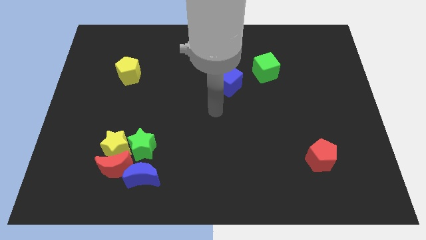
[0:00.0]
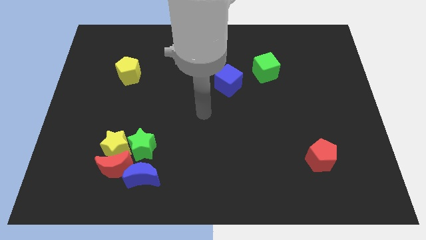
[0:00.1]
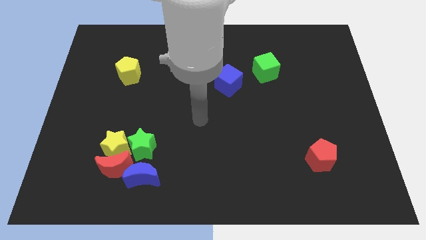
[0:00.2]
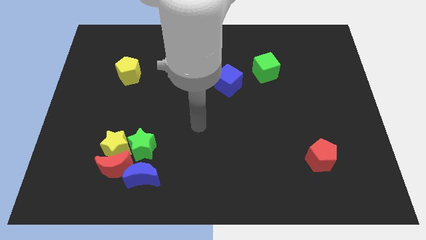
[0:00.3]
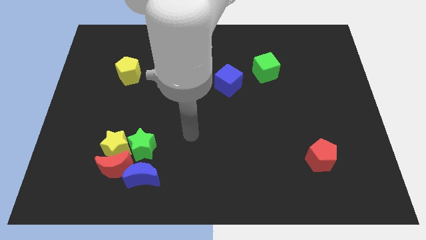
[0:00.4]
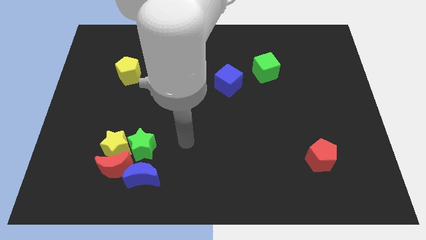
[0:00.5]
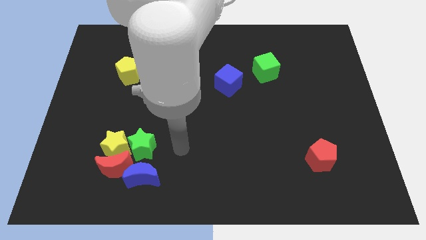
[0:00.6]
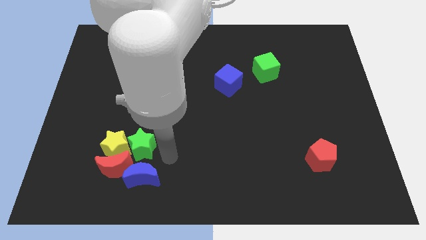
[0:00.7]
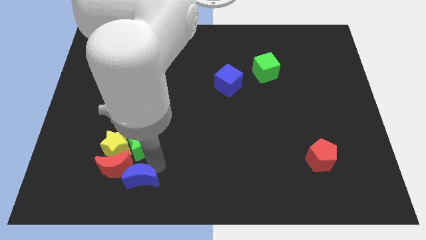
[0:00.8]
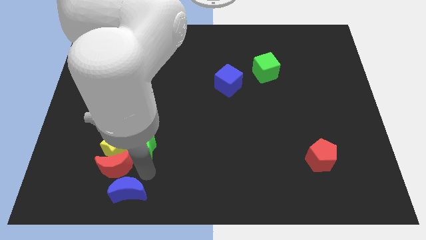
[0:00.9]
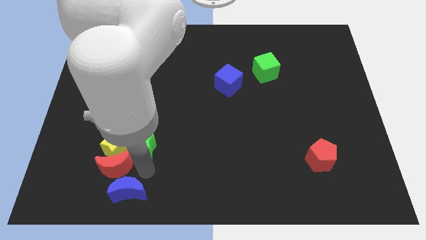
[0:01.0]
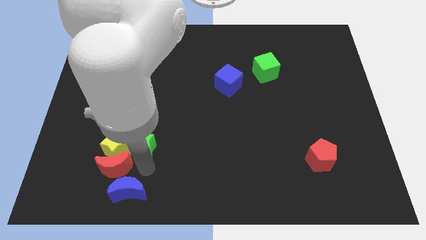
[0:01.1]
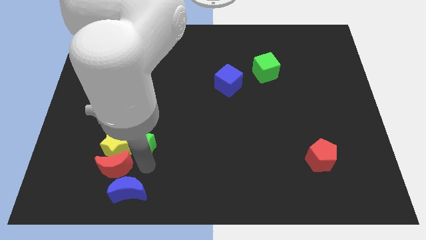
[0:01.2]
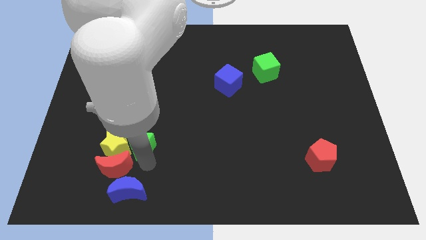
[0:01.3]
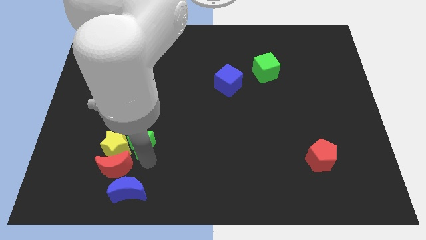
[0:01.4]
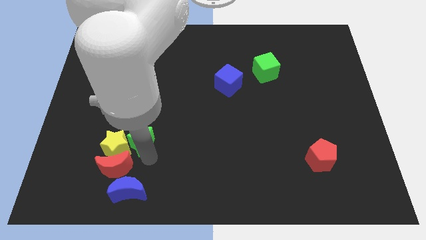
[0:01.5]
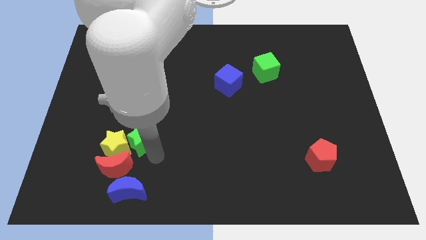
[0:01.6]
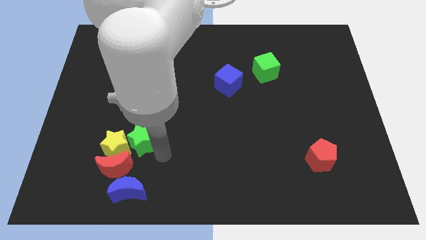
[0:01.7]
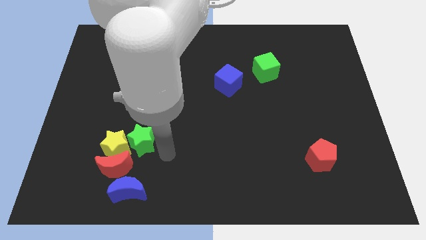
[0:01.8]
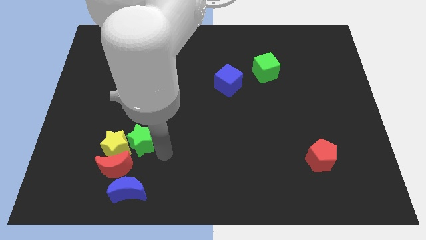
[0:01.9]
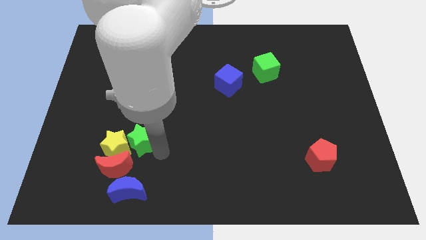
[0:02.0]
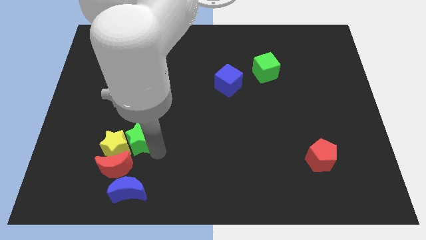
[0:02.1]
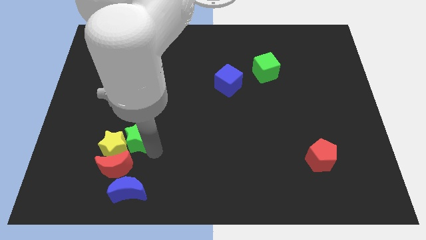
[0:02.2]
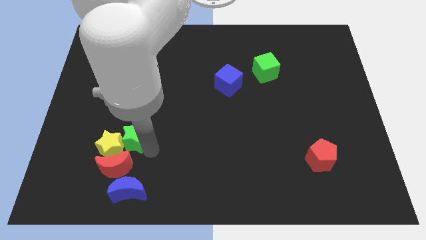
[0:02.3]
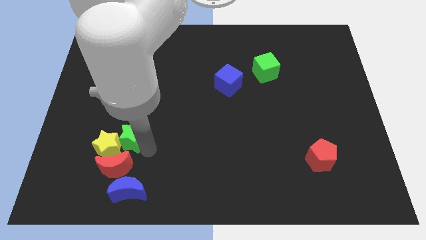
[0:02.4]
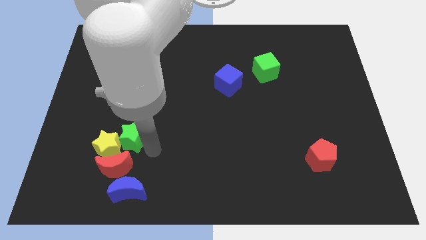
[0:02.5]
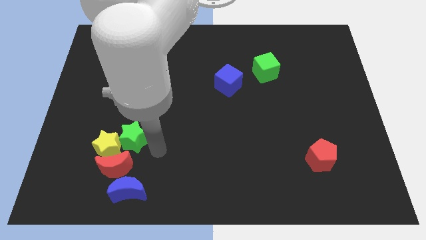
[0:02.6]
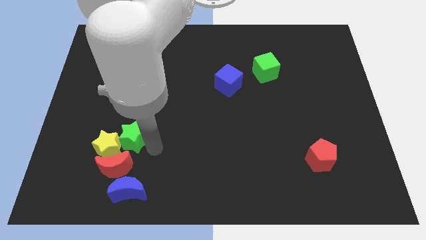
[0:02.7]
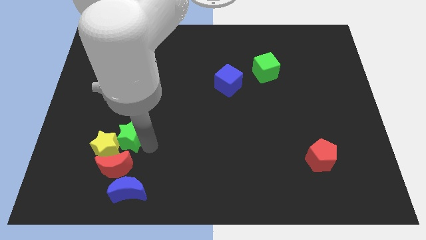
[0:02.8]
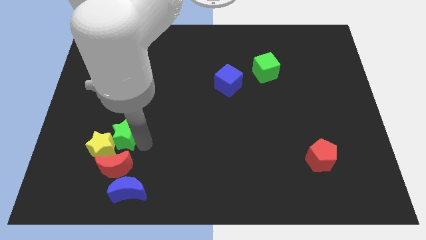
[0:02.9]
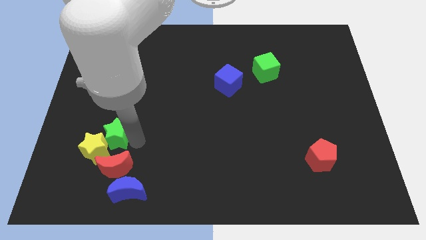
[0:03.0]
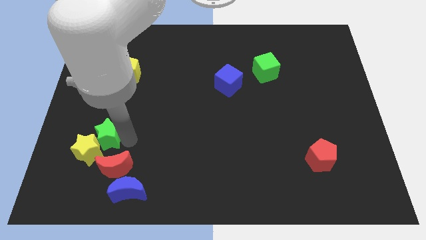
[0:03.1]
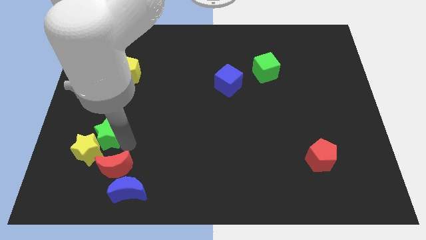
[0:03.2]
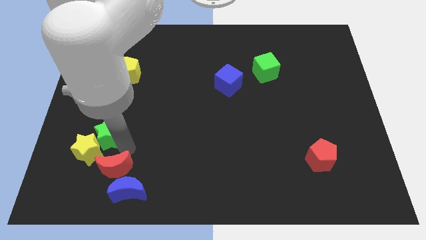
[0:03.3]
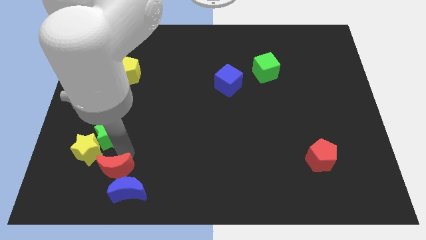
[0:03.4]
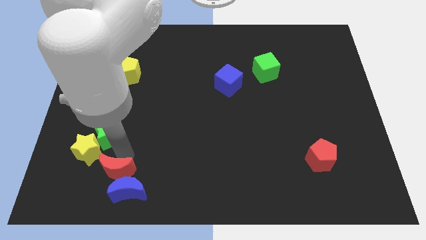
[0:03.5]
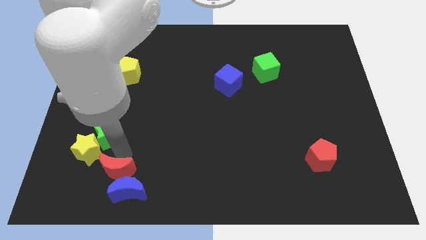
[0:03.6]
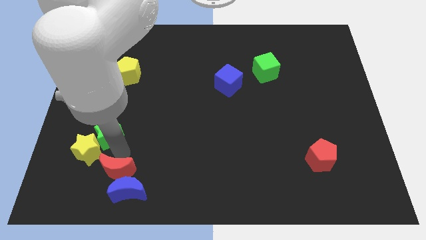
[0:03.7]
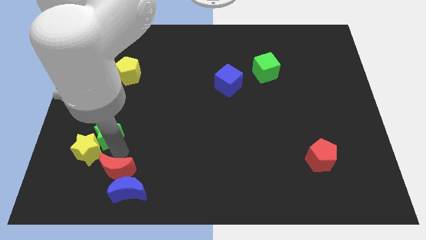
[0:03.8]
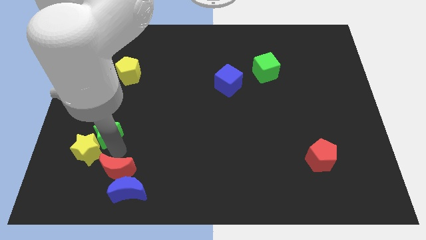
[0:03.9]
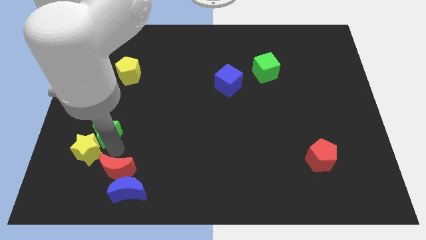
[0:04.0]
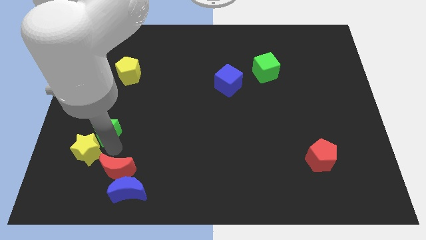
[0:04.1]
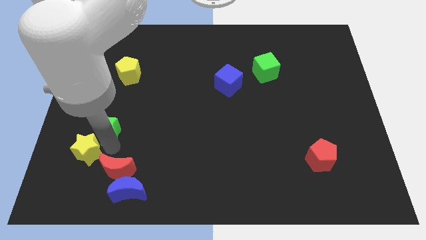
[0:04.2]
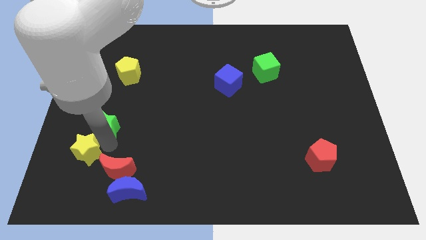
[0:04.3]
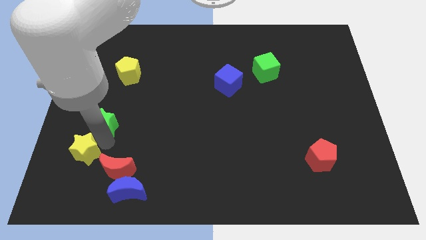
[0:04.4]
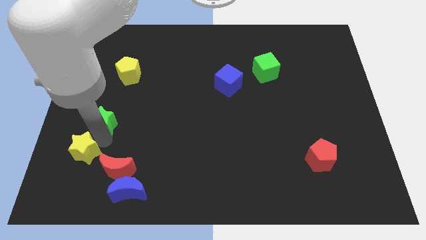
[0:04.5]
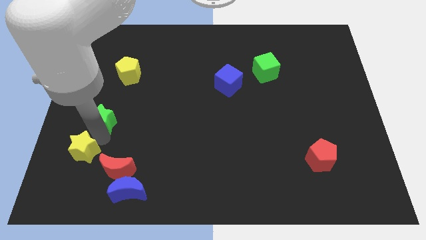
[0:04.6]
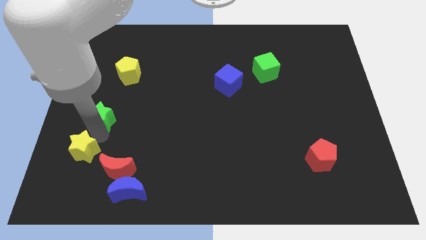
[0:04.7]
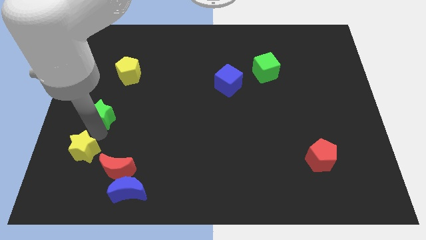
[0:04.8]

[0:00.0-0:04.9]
slide the green star to the left side

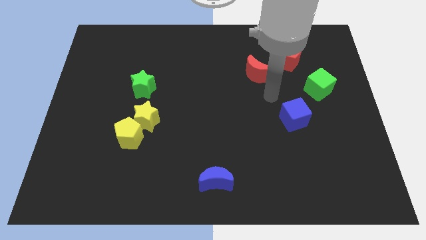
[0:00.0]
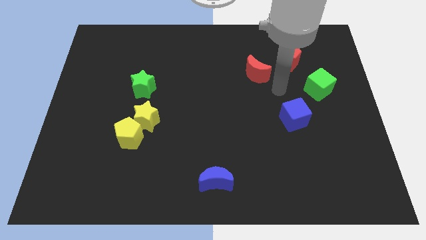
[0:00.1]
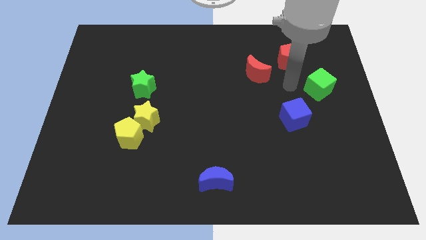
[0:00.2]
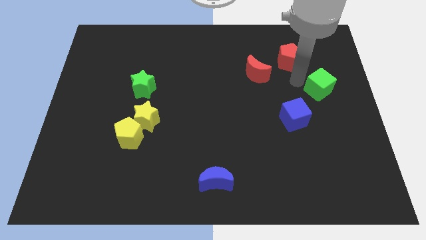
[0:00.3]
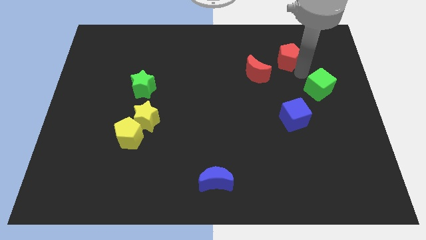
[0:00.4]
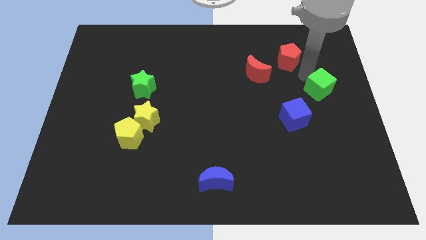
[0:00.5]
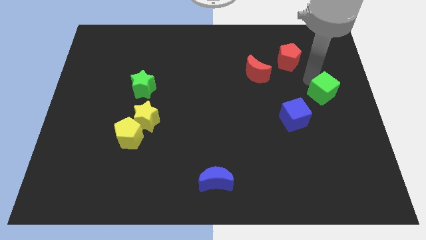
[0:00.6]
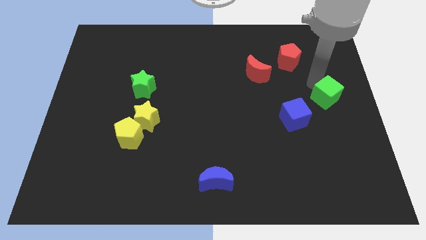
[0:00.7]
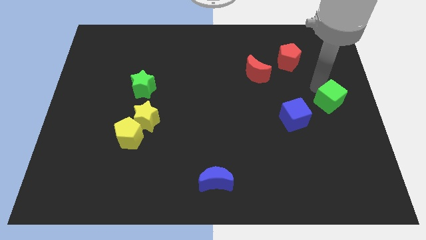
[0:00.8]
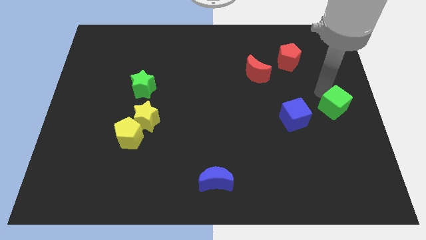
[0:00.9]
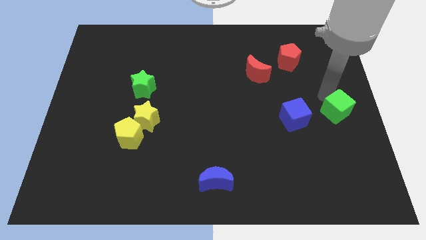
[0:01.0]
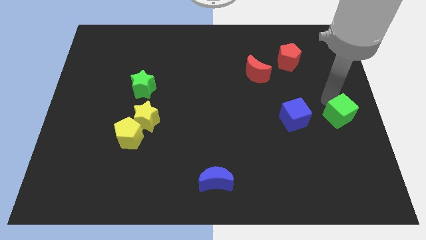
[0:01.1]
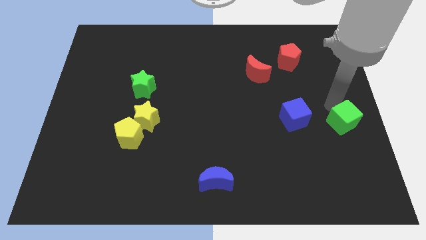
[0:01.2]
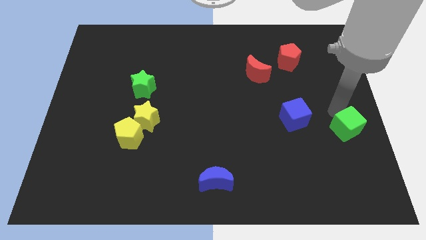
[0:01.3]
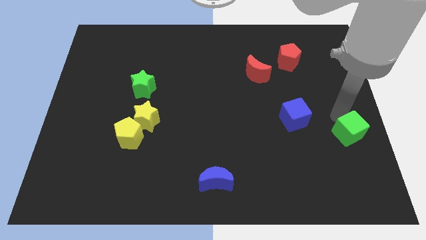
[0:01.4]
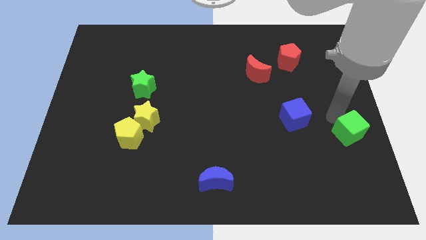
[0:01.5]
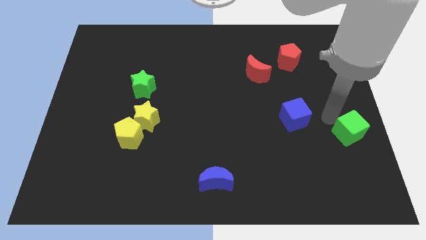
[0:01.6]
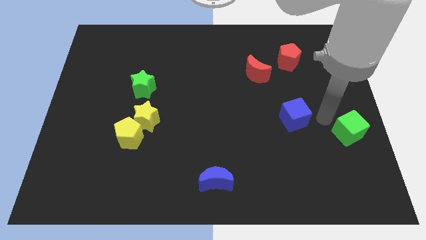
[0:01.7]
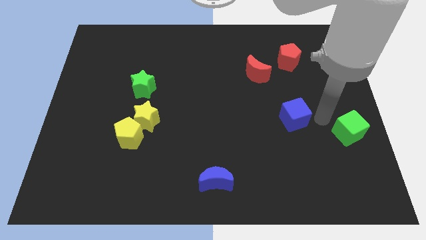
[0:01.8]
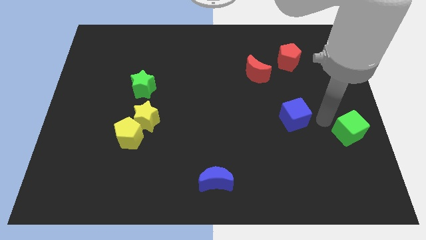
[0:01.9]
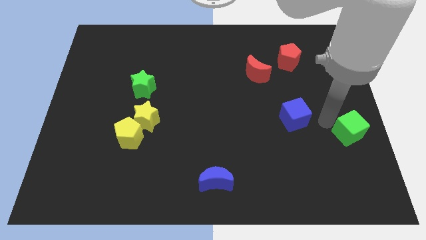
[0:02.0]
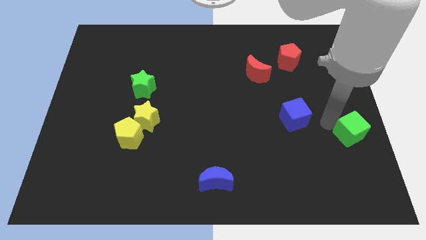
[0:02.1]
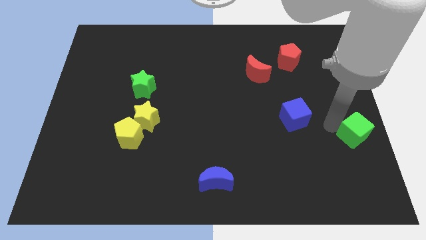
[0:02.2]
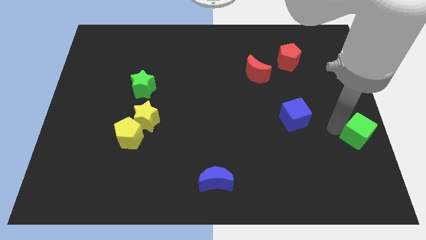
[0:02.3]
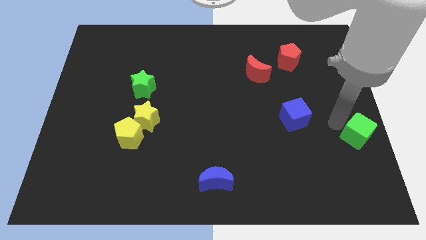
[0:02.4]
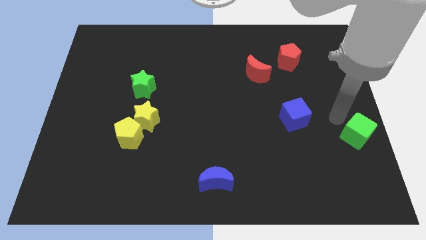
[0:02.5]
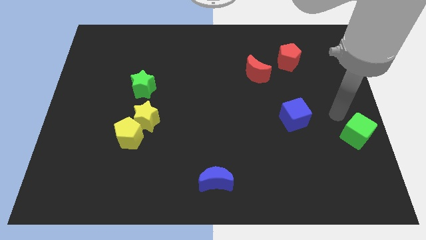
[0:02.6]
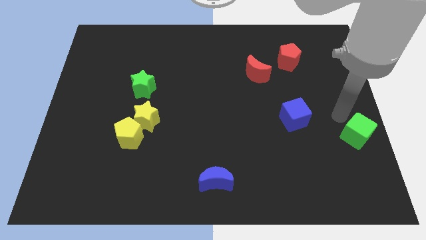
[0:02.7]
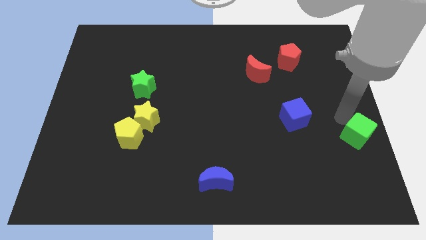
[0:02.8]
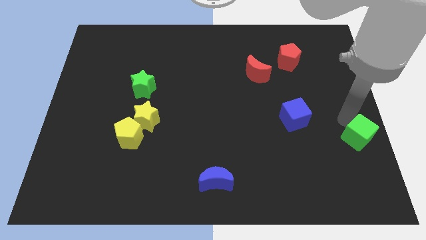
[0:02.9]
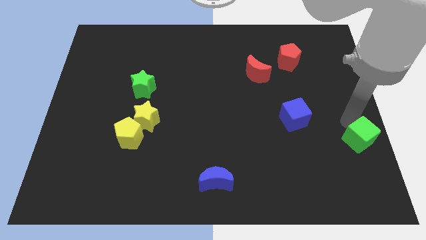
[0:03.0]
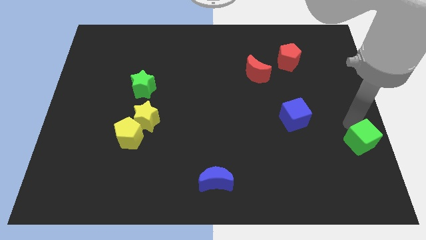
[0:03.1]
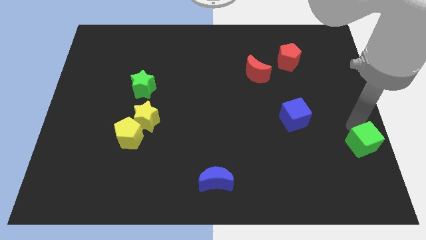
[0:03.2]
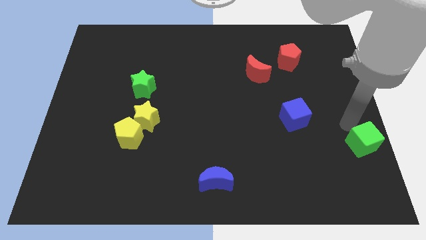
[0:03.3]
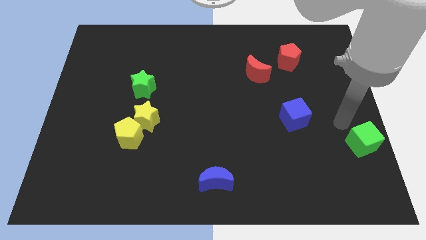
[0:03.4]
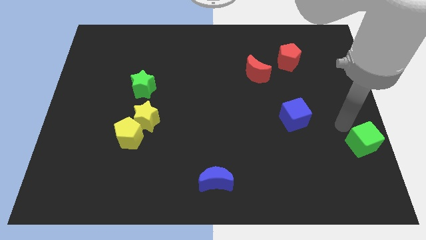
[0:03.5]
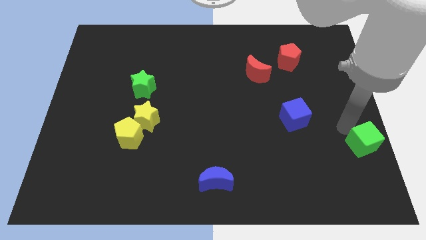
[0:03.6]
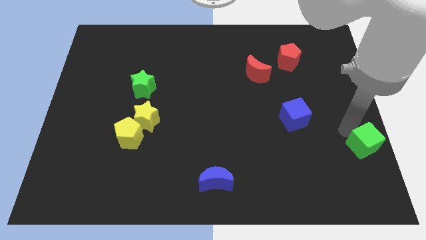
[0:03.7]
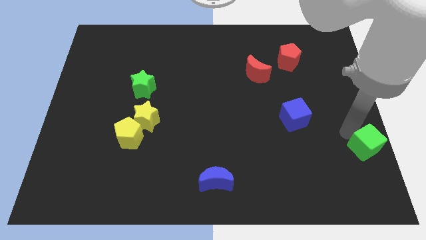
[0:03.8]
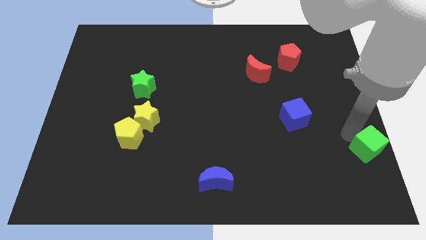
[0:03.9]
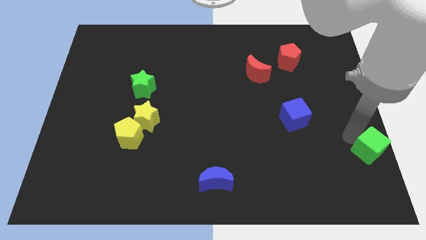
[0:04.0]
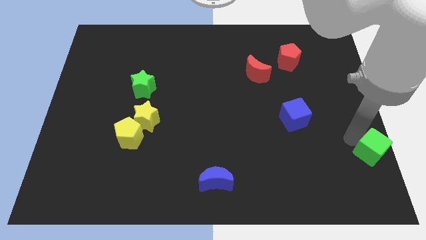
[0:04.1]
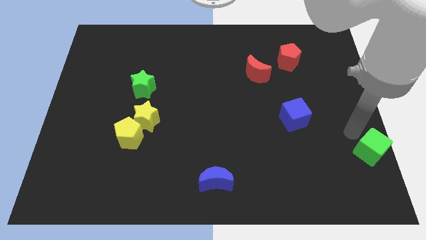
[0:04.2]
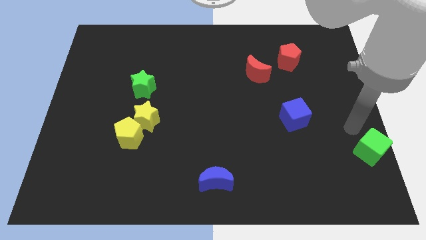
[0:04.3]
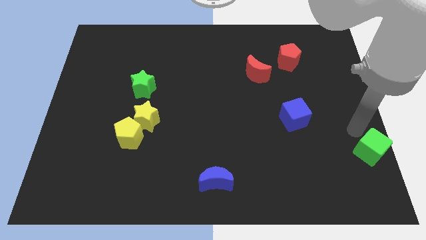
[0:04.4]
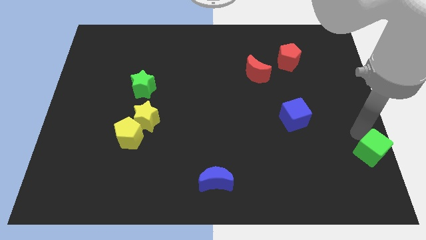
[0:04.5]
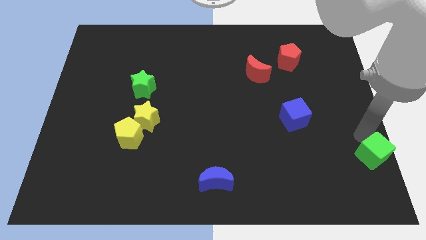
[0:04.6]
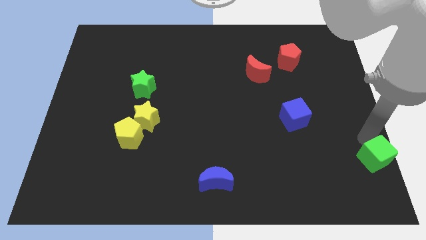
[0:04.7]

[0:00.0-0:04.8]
push the green cube to the bottom right of the board
